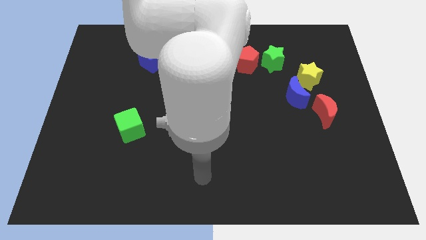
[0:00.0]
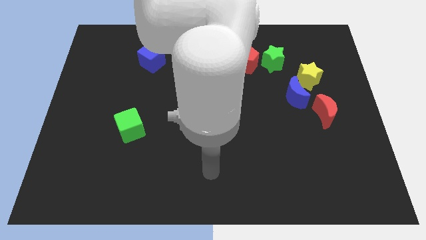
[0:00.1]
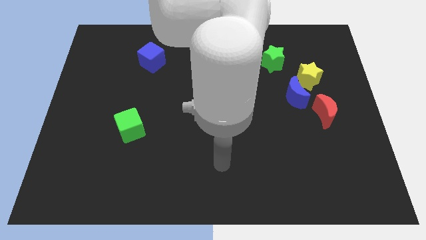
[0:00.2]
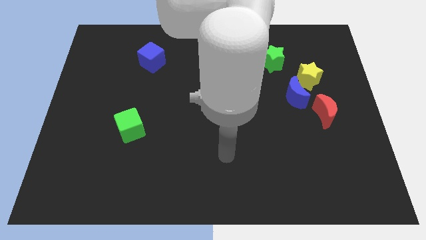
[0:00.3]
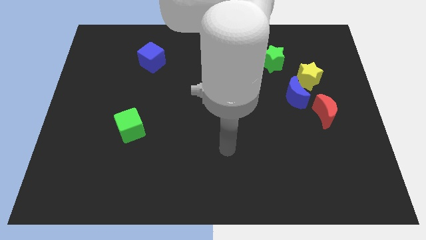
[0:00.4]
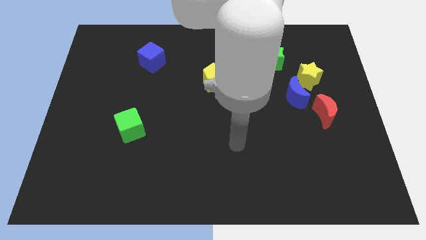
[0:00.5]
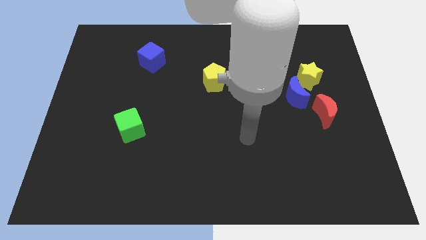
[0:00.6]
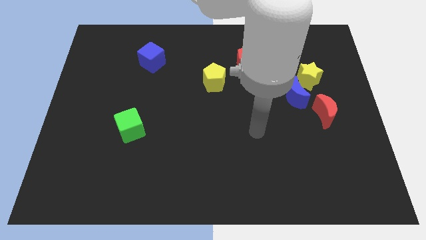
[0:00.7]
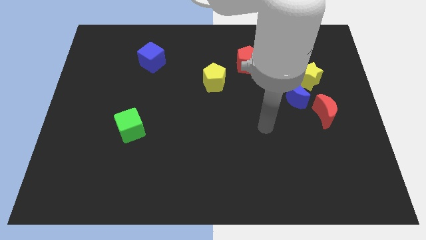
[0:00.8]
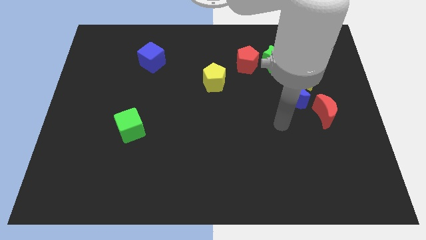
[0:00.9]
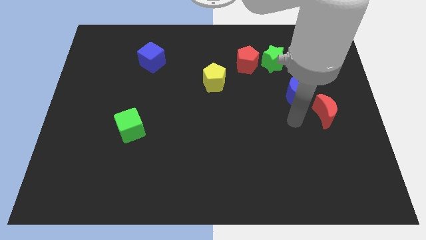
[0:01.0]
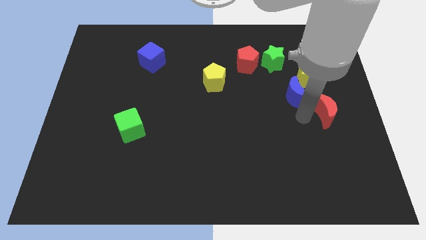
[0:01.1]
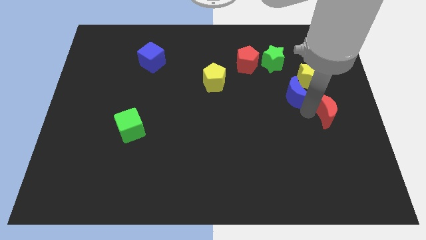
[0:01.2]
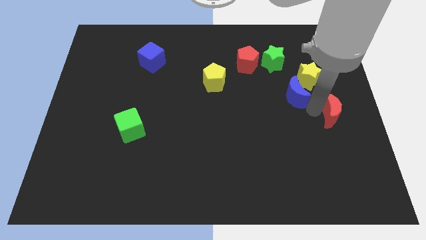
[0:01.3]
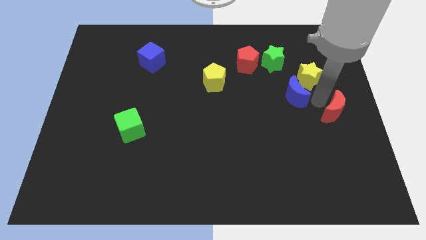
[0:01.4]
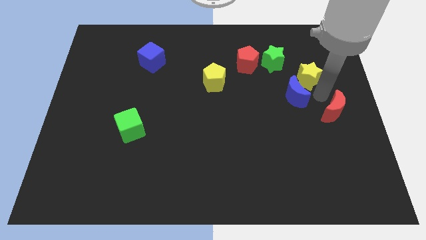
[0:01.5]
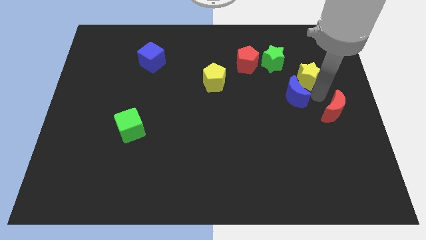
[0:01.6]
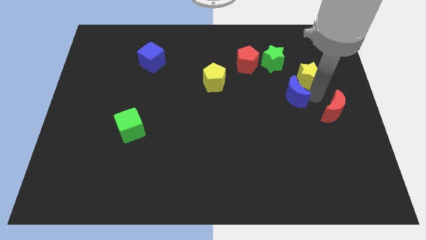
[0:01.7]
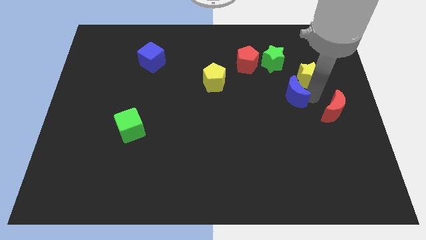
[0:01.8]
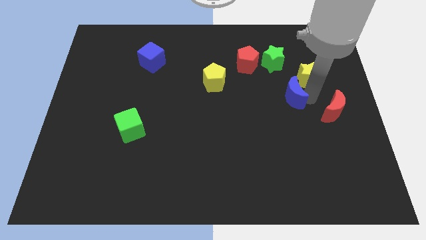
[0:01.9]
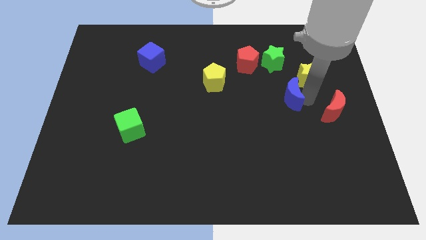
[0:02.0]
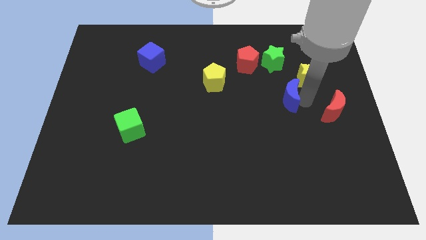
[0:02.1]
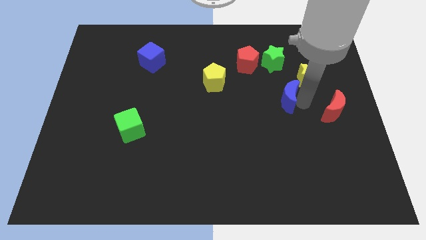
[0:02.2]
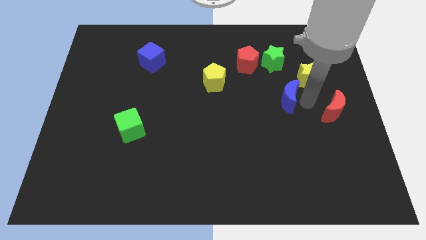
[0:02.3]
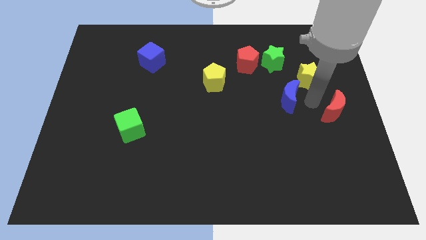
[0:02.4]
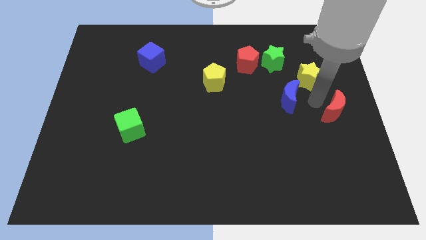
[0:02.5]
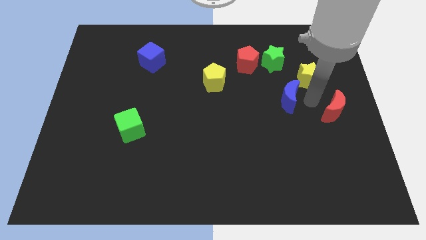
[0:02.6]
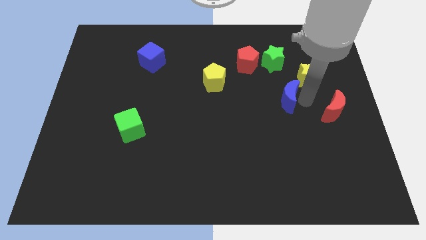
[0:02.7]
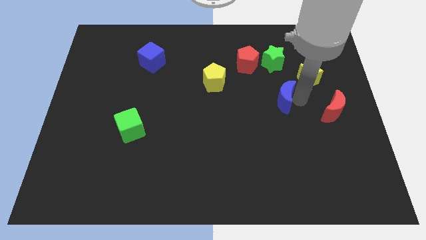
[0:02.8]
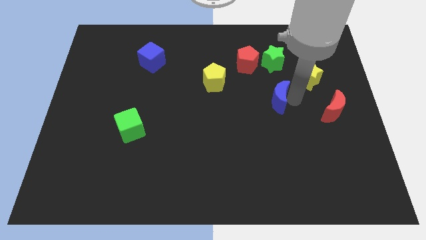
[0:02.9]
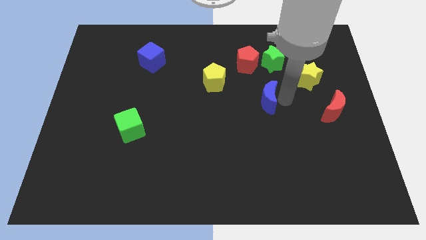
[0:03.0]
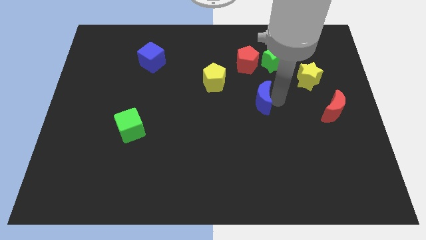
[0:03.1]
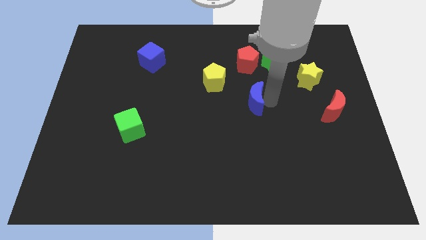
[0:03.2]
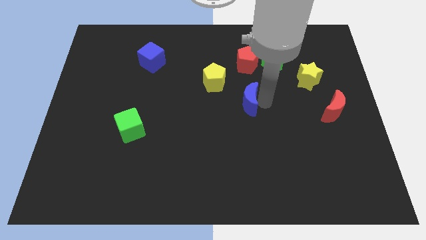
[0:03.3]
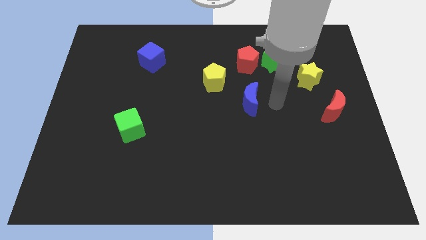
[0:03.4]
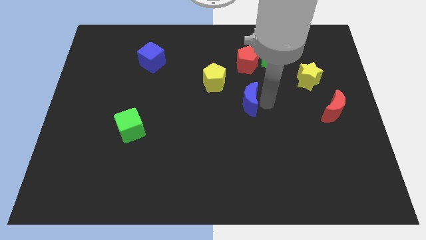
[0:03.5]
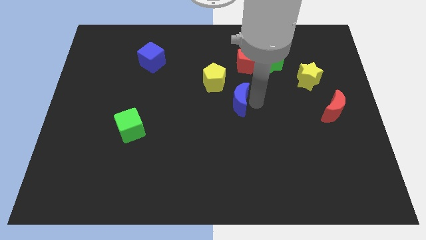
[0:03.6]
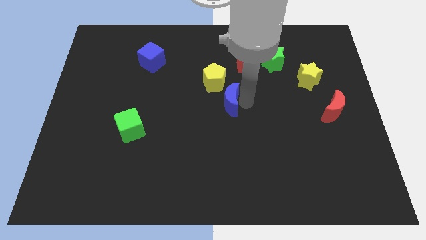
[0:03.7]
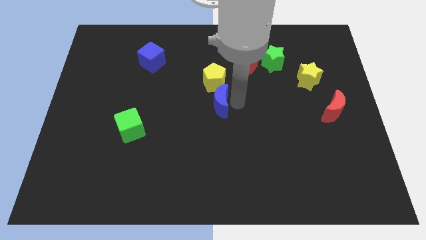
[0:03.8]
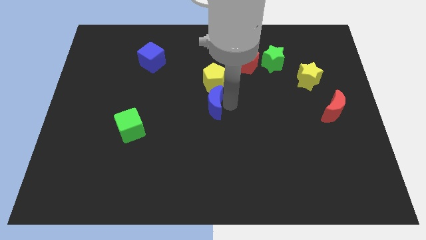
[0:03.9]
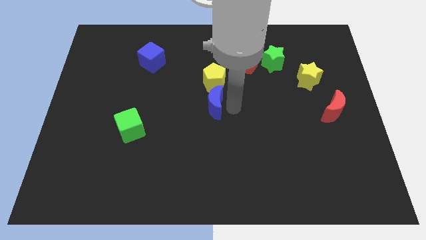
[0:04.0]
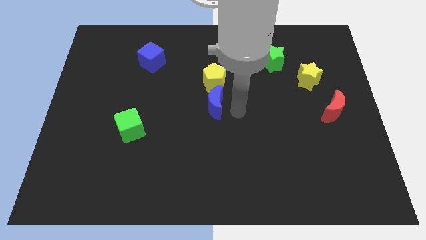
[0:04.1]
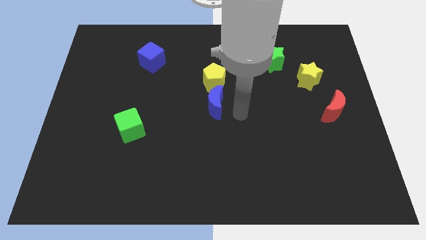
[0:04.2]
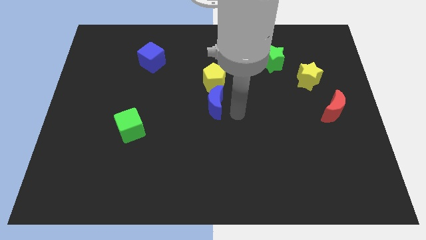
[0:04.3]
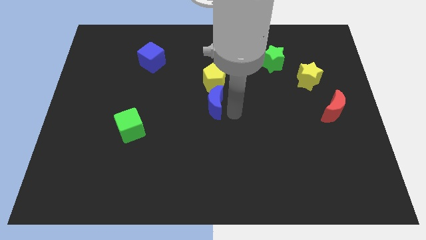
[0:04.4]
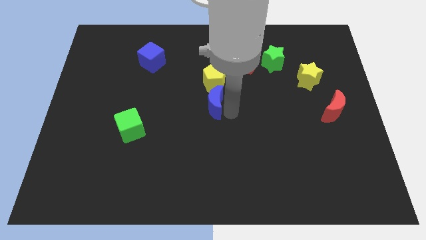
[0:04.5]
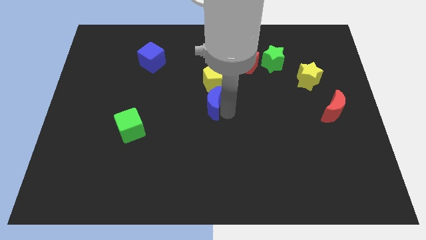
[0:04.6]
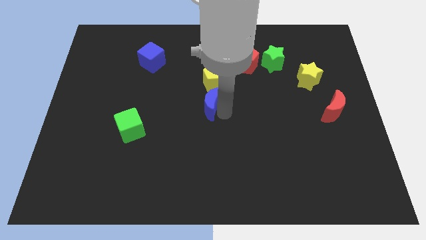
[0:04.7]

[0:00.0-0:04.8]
put the blue moon diagonally down and to the left of the yellow pentagon

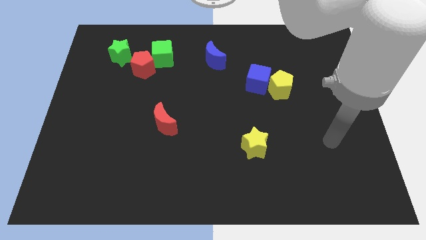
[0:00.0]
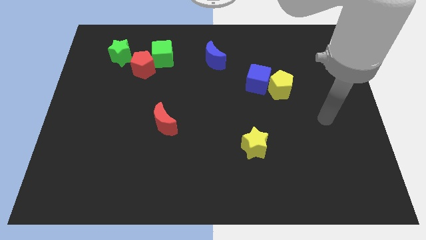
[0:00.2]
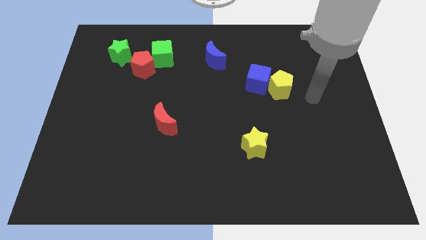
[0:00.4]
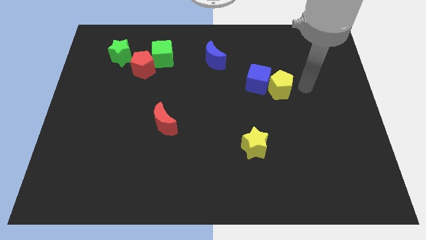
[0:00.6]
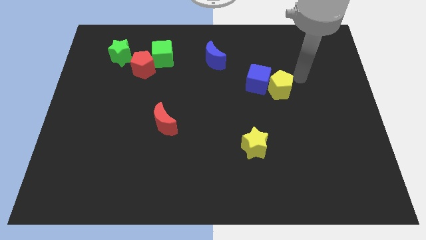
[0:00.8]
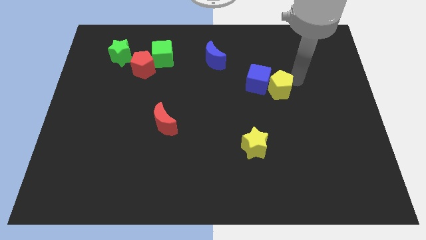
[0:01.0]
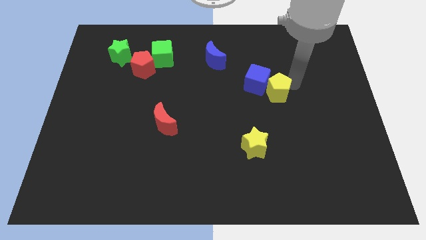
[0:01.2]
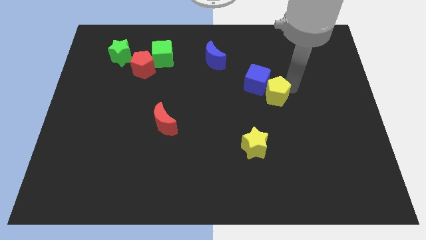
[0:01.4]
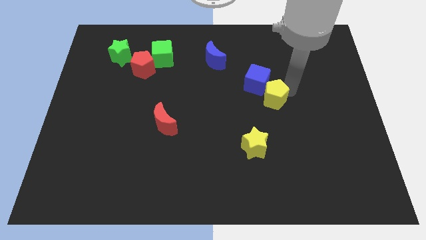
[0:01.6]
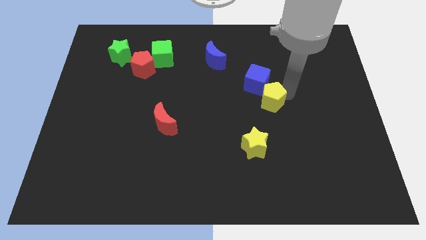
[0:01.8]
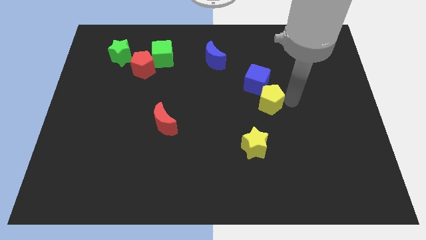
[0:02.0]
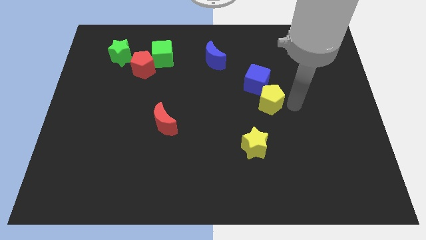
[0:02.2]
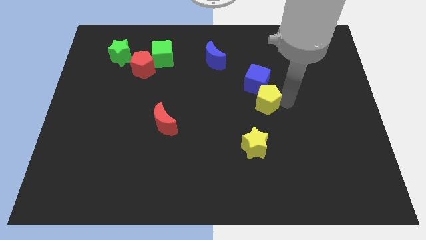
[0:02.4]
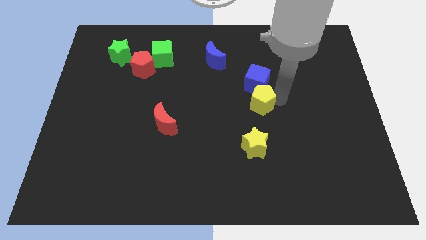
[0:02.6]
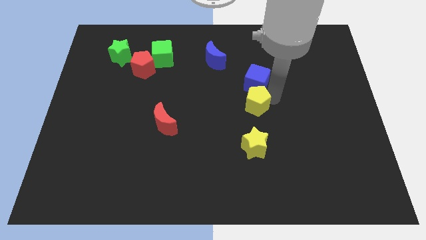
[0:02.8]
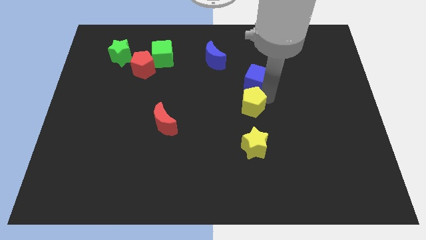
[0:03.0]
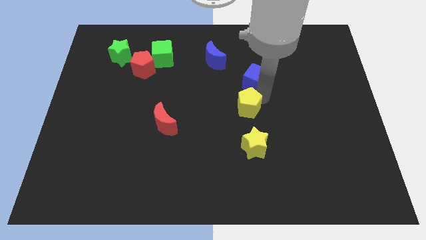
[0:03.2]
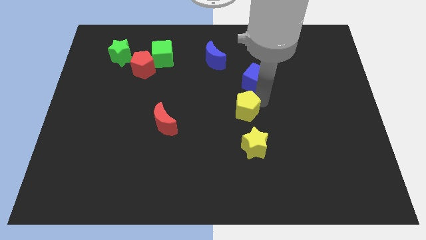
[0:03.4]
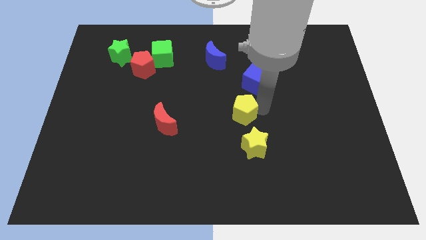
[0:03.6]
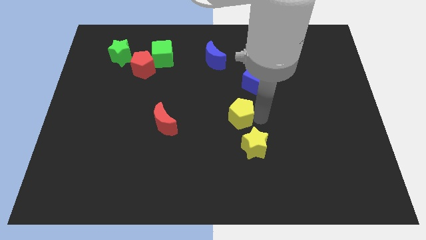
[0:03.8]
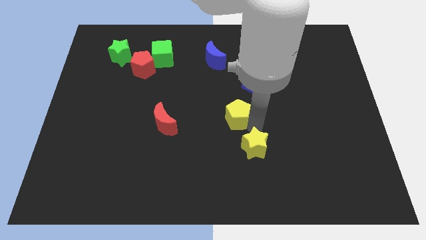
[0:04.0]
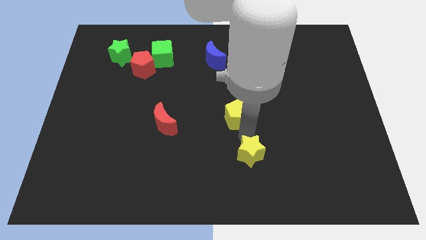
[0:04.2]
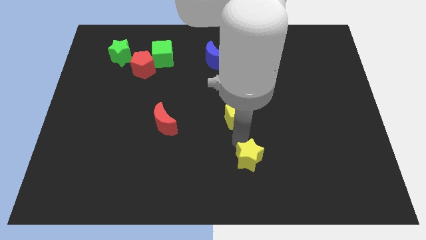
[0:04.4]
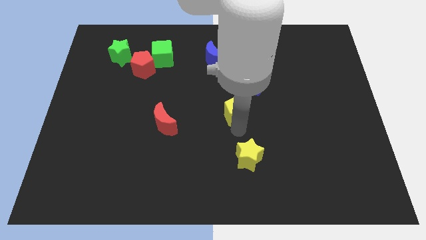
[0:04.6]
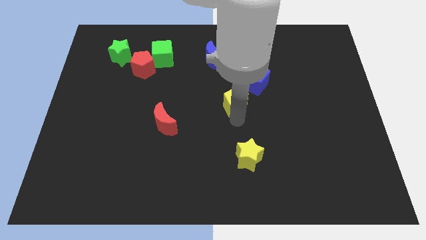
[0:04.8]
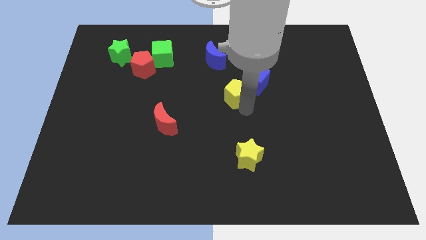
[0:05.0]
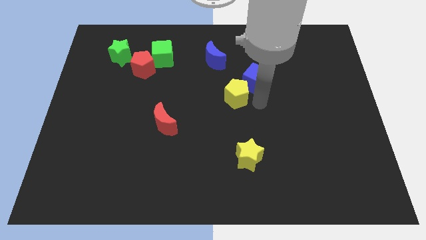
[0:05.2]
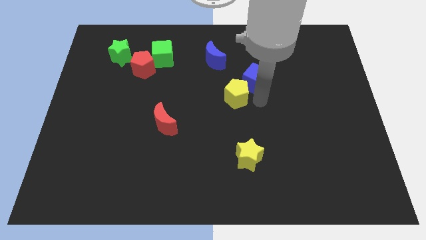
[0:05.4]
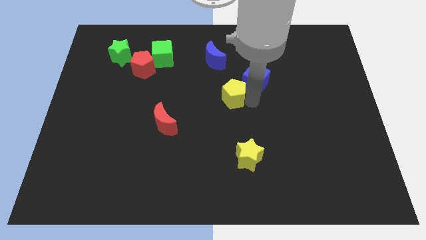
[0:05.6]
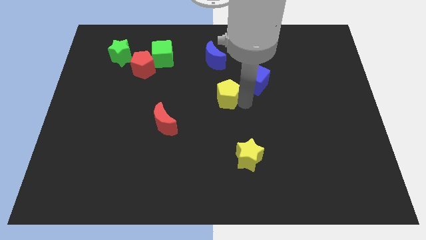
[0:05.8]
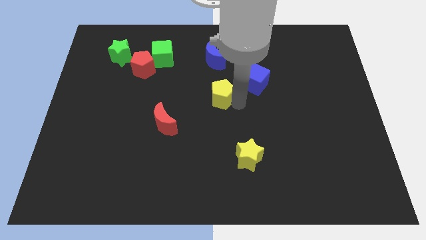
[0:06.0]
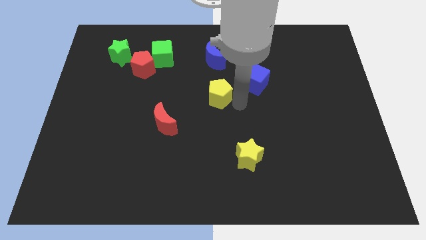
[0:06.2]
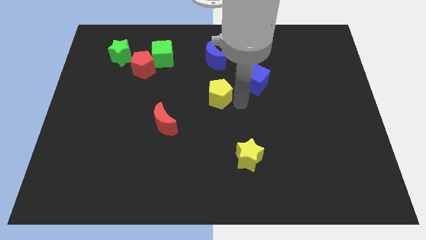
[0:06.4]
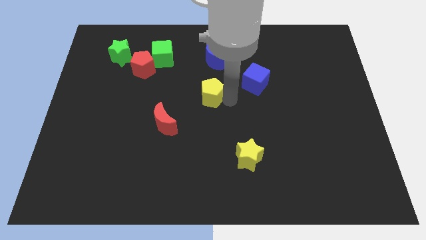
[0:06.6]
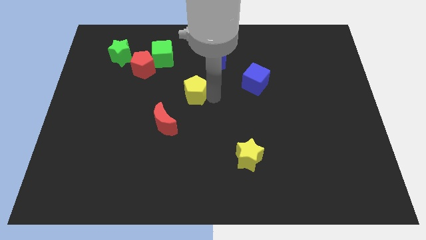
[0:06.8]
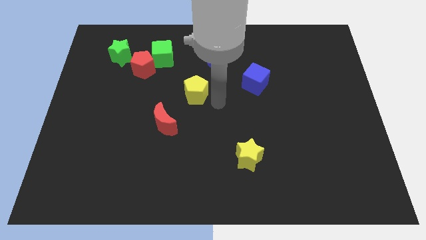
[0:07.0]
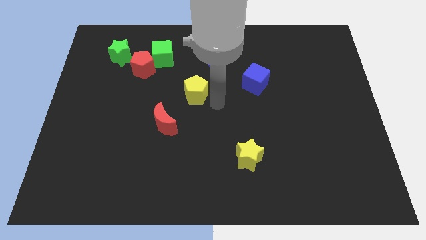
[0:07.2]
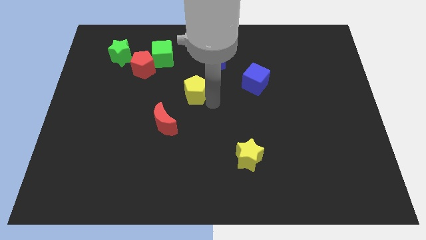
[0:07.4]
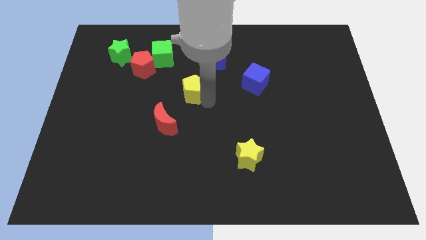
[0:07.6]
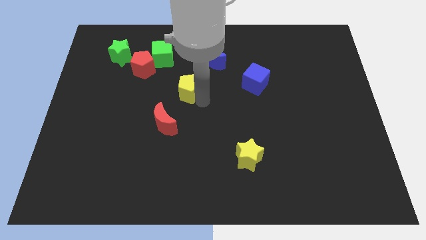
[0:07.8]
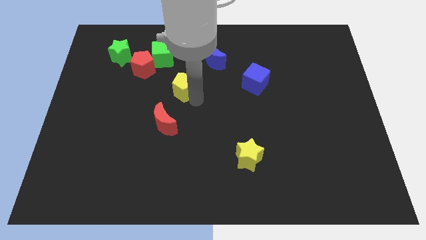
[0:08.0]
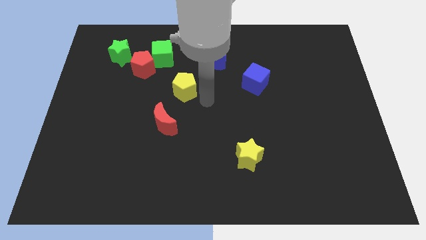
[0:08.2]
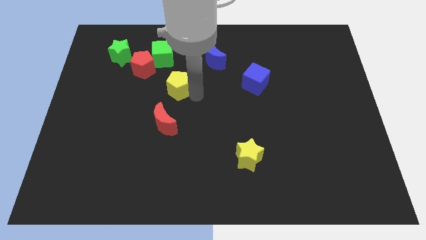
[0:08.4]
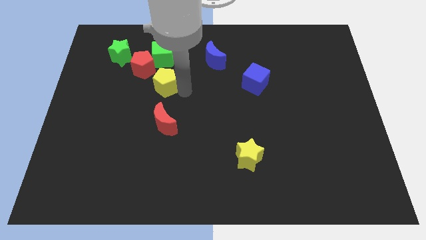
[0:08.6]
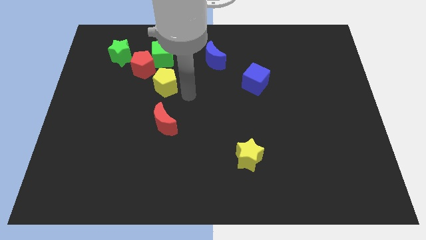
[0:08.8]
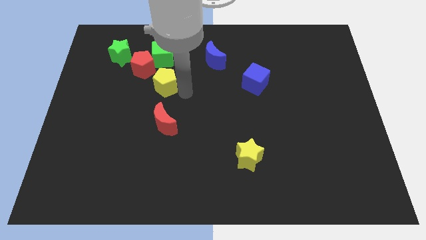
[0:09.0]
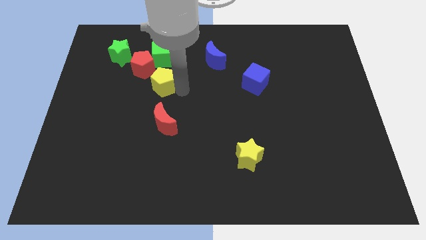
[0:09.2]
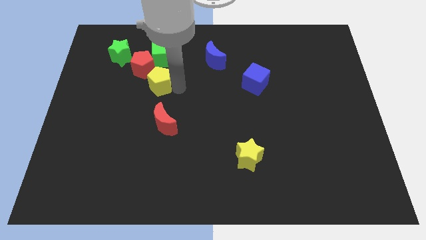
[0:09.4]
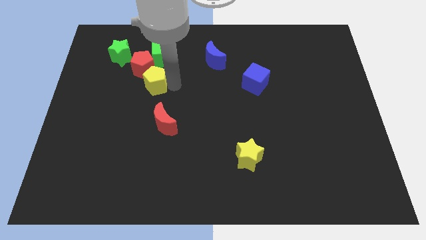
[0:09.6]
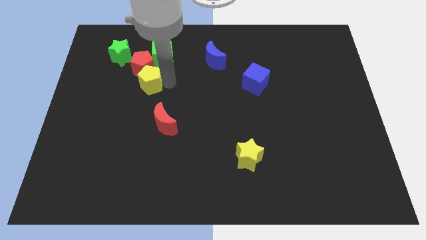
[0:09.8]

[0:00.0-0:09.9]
move the yellow pentagon to the bottom left side of the green cube
